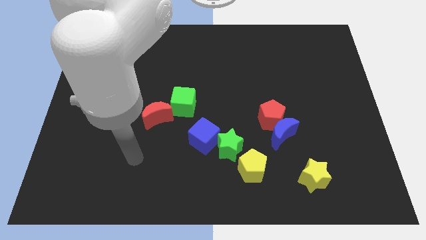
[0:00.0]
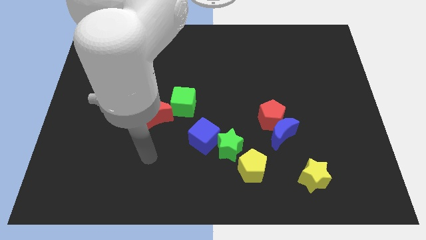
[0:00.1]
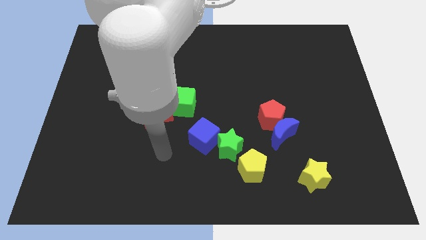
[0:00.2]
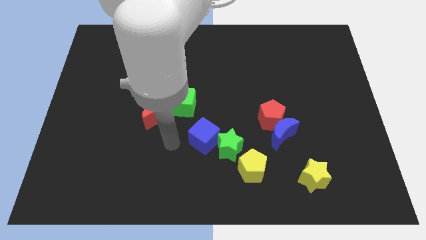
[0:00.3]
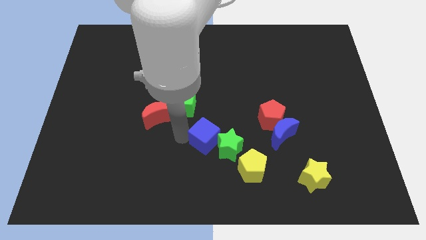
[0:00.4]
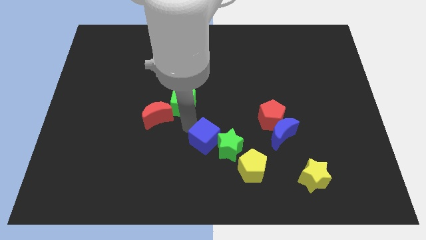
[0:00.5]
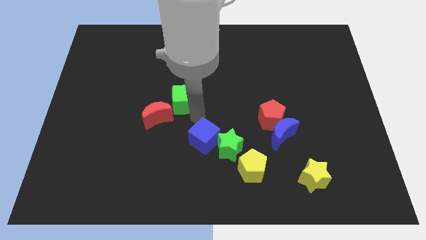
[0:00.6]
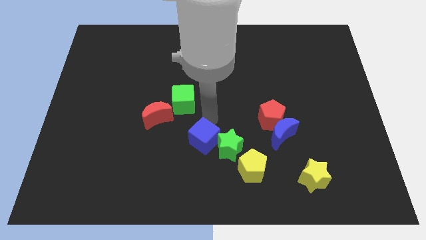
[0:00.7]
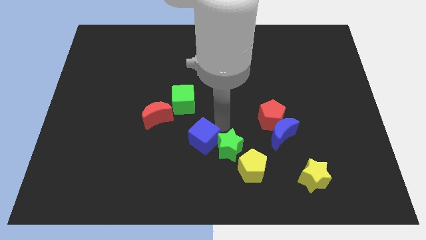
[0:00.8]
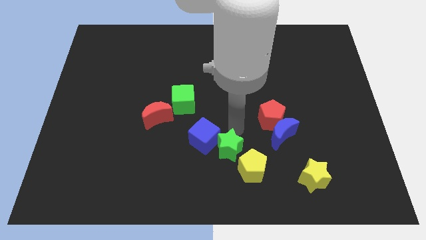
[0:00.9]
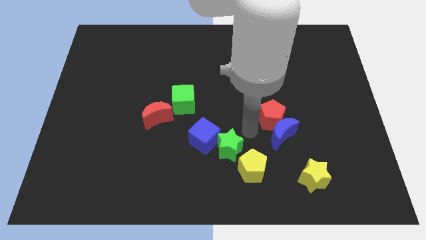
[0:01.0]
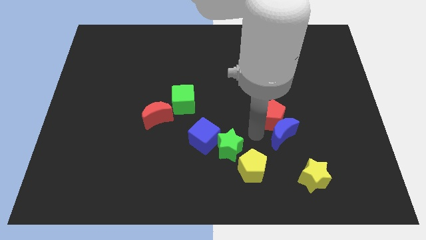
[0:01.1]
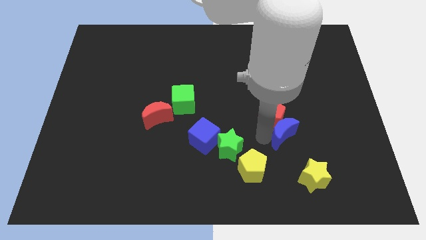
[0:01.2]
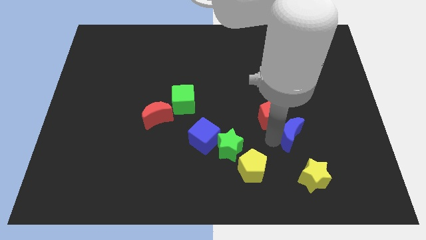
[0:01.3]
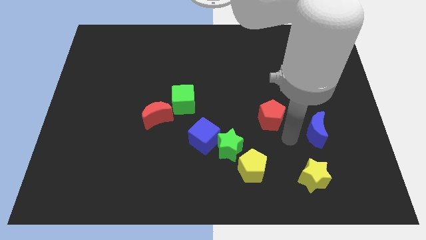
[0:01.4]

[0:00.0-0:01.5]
pull the red pentagon apart from the blue moon

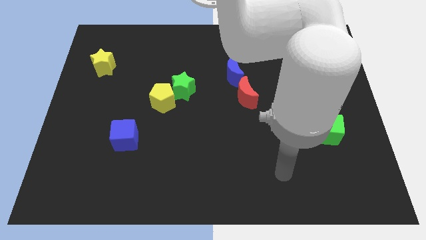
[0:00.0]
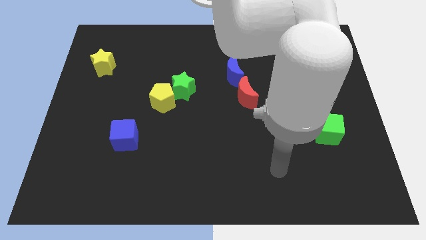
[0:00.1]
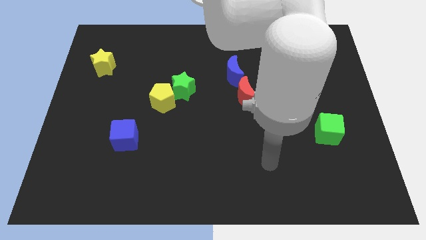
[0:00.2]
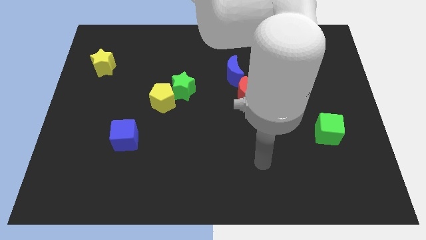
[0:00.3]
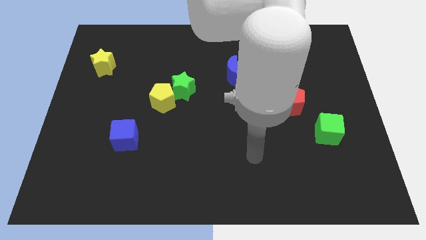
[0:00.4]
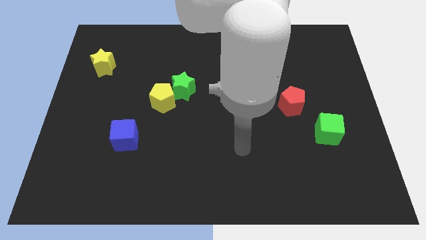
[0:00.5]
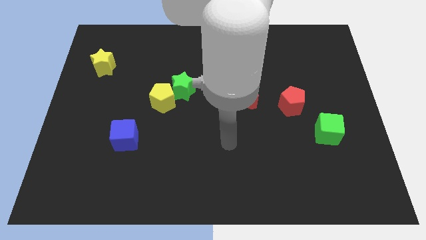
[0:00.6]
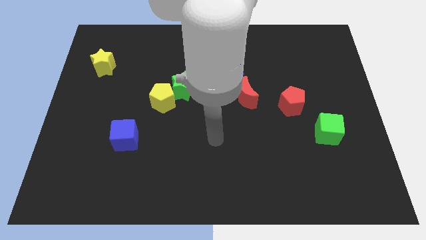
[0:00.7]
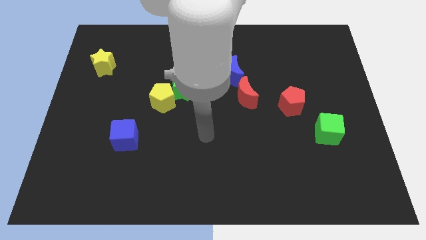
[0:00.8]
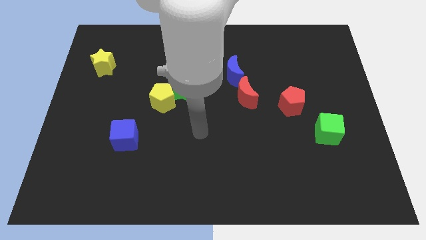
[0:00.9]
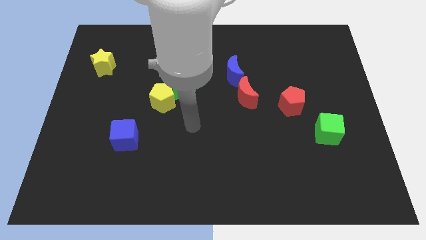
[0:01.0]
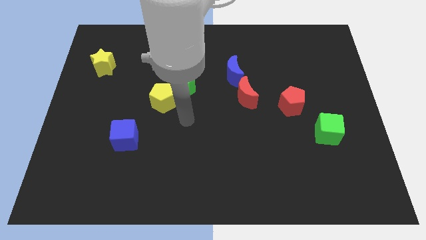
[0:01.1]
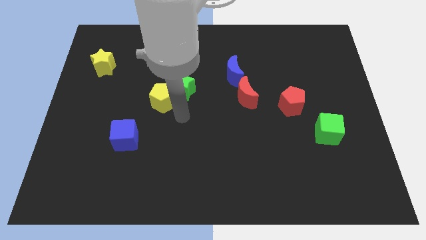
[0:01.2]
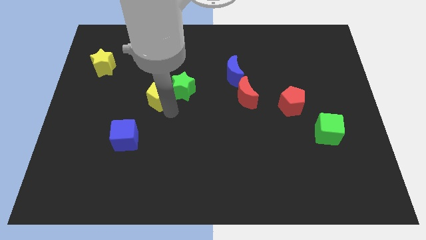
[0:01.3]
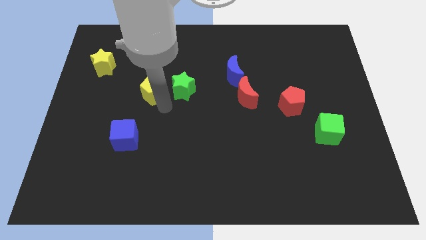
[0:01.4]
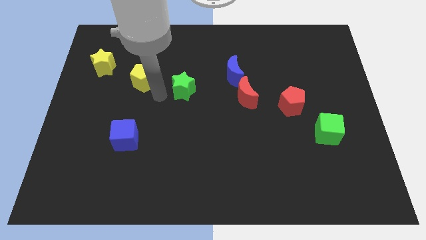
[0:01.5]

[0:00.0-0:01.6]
pull the green star apart from the yellow pentagon

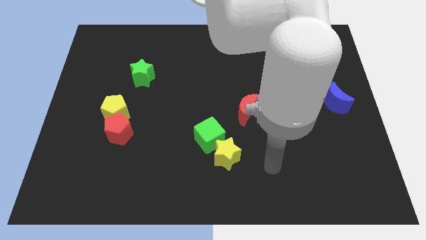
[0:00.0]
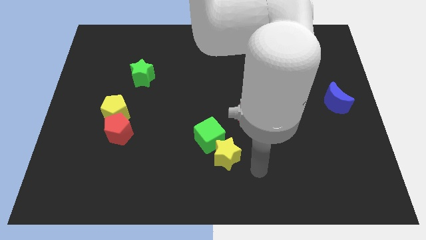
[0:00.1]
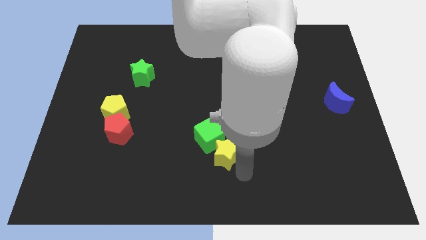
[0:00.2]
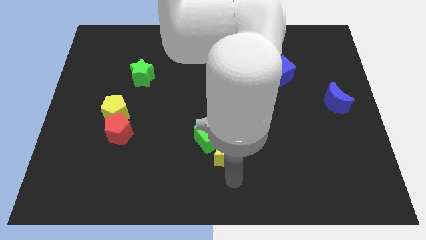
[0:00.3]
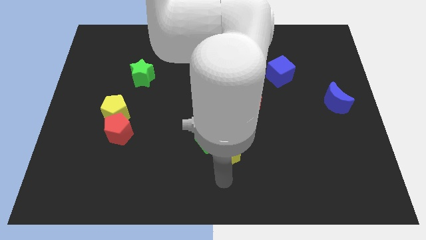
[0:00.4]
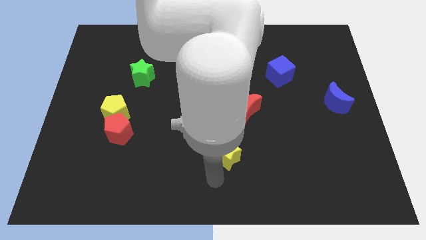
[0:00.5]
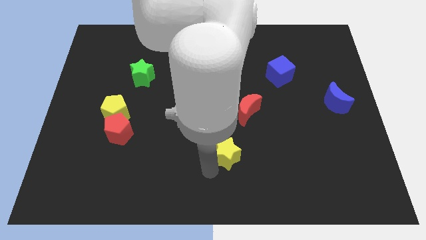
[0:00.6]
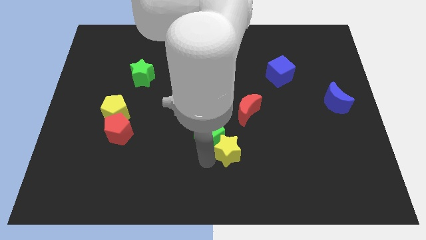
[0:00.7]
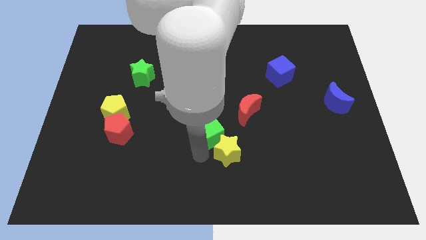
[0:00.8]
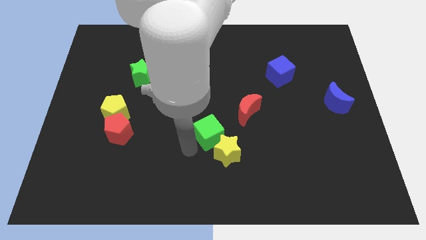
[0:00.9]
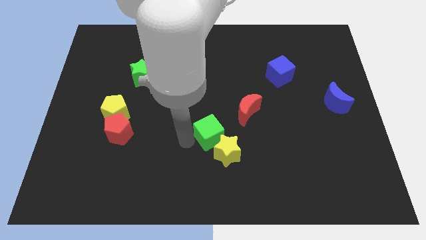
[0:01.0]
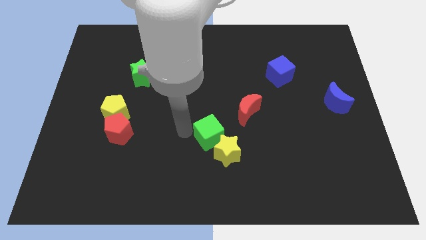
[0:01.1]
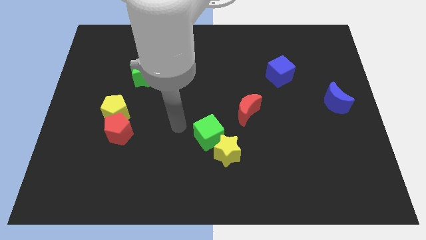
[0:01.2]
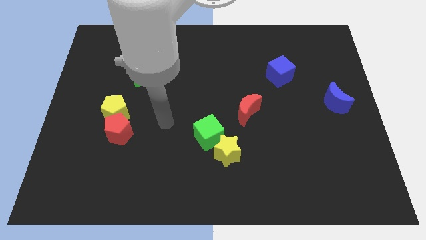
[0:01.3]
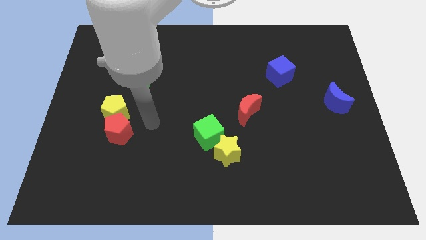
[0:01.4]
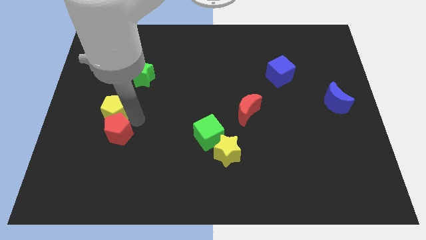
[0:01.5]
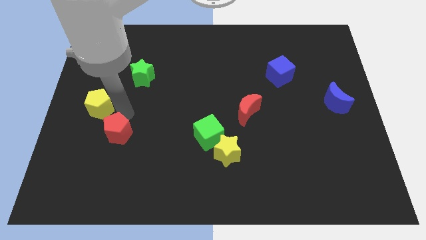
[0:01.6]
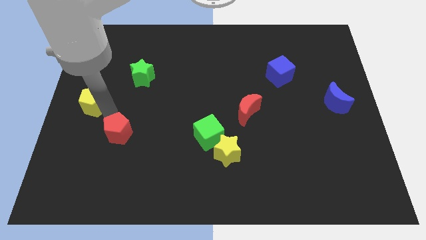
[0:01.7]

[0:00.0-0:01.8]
move the red pentagon away from the yellow pentagon

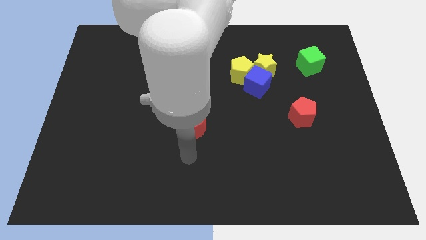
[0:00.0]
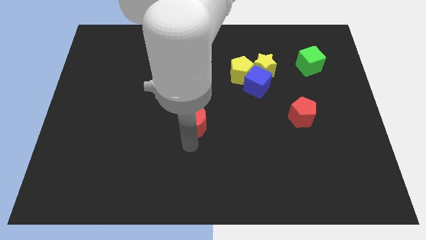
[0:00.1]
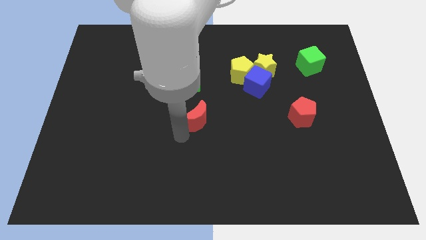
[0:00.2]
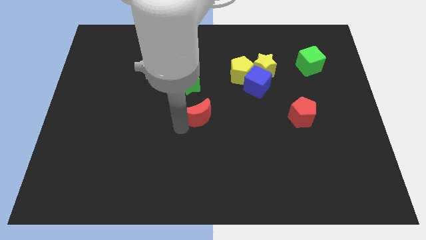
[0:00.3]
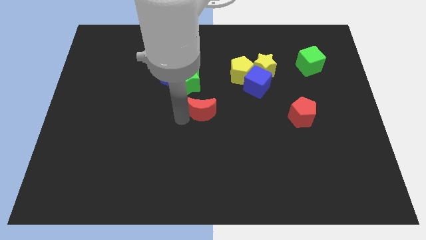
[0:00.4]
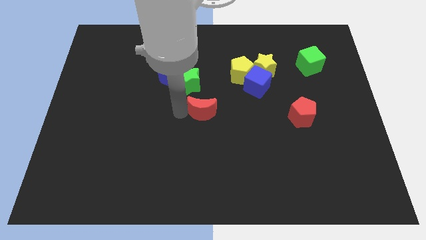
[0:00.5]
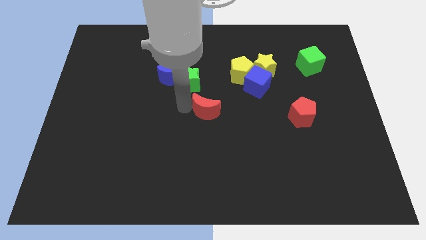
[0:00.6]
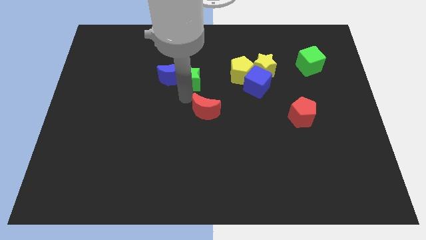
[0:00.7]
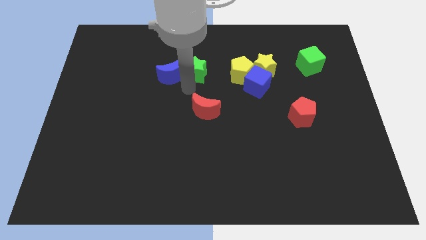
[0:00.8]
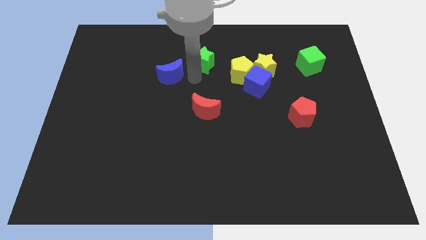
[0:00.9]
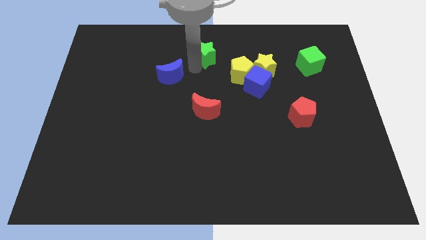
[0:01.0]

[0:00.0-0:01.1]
pull the blue moon apart from the green star

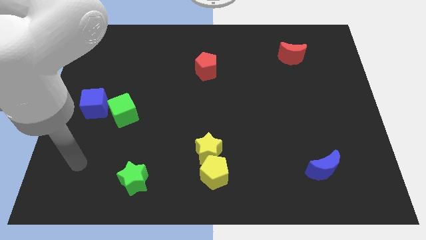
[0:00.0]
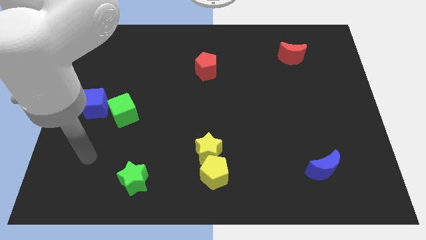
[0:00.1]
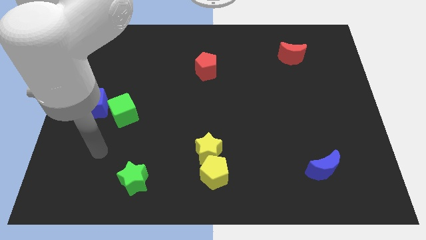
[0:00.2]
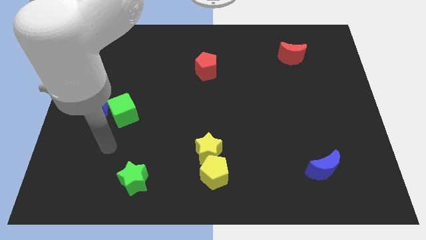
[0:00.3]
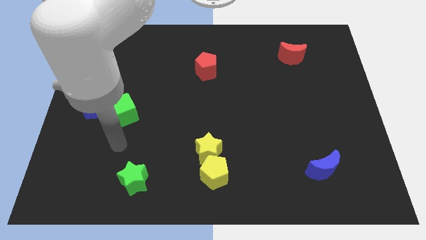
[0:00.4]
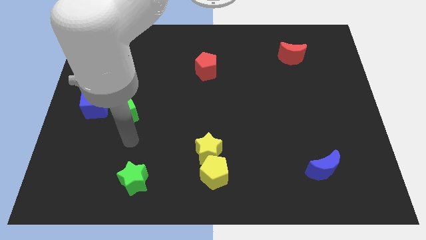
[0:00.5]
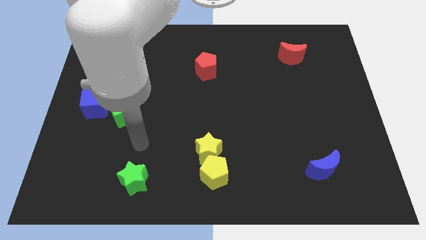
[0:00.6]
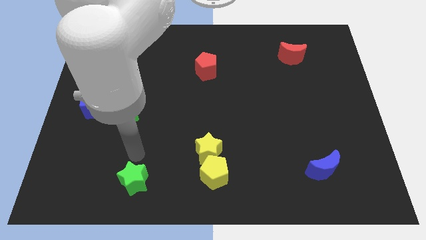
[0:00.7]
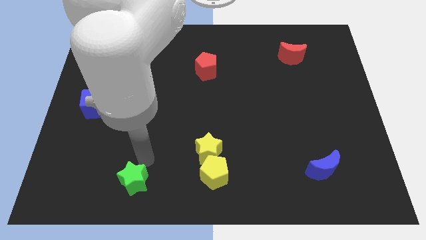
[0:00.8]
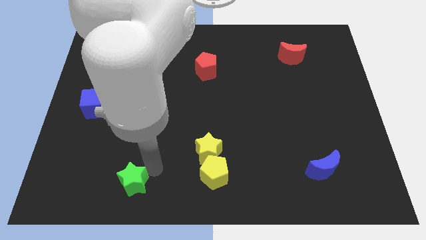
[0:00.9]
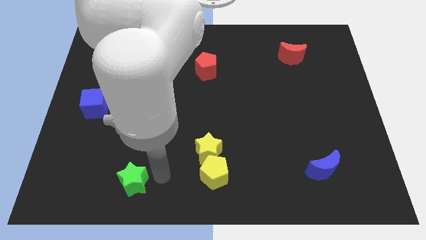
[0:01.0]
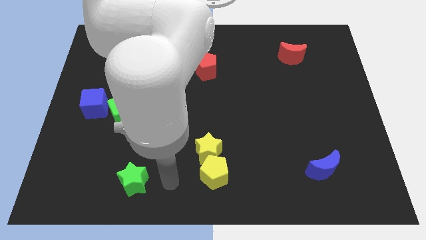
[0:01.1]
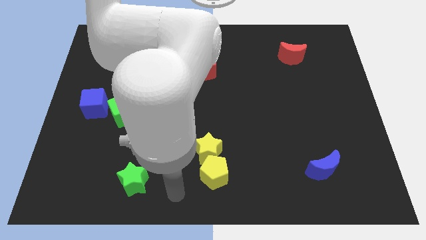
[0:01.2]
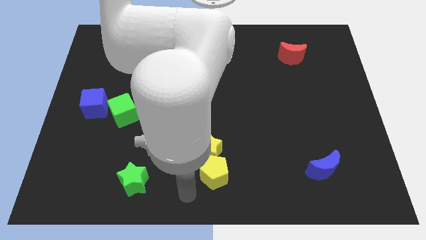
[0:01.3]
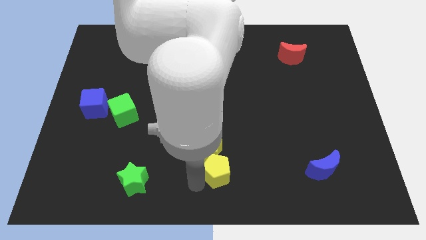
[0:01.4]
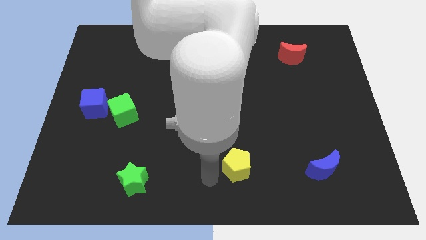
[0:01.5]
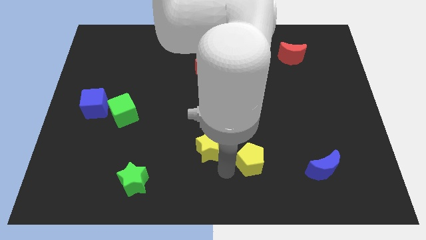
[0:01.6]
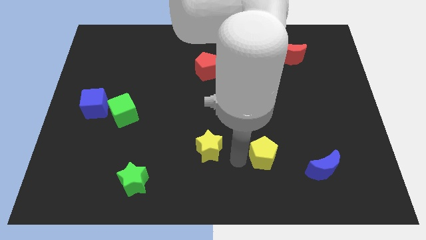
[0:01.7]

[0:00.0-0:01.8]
move the yellow star away from the yellow pentagon

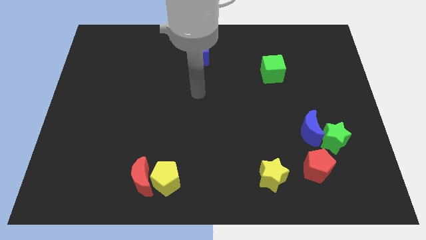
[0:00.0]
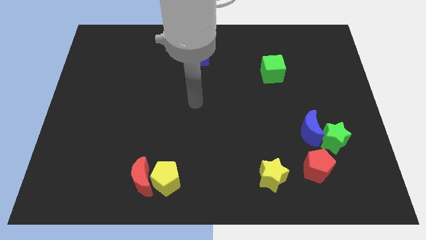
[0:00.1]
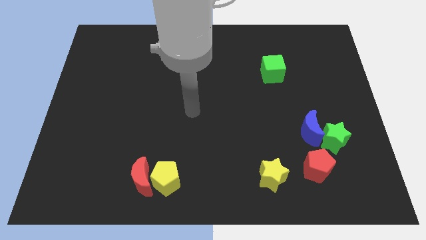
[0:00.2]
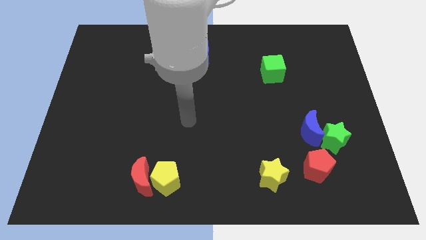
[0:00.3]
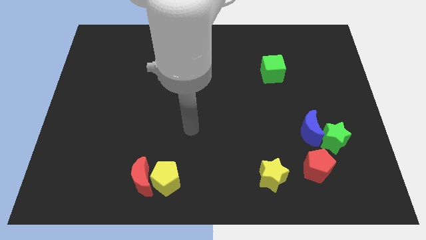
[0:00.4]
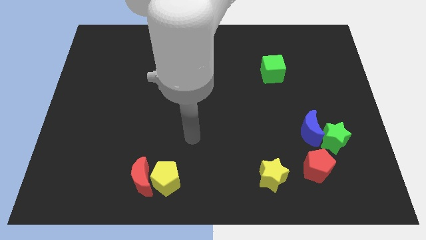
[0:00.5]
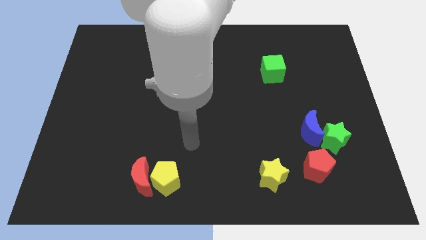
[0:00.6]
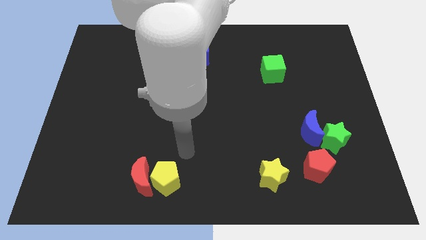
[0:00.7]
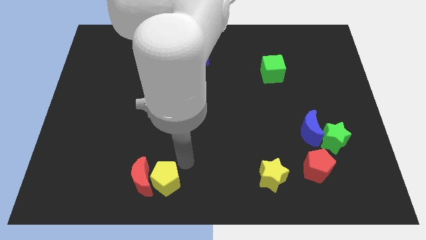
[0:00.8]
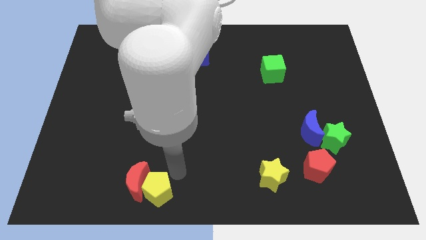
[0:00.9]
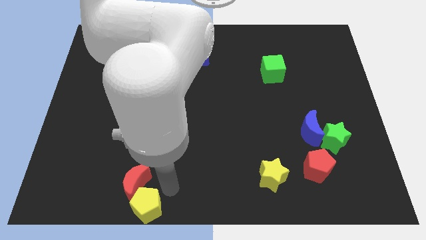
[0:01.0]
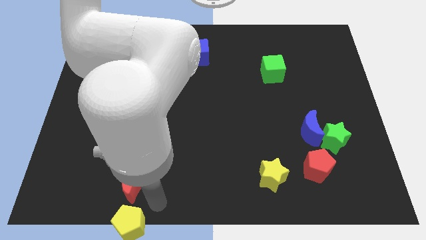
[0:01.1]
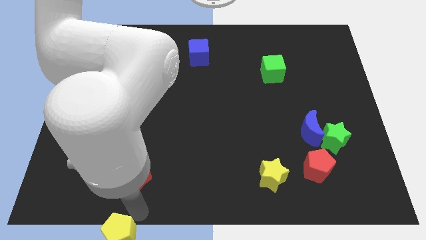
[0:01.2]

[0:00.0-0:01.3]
separate the red moon from the yellow pentagon
